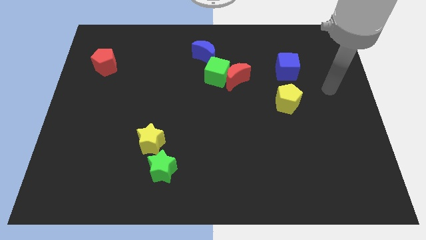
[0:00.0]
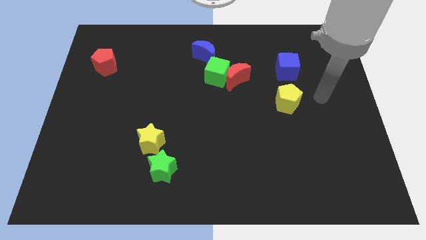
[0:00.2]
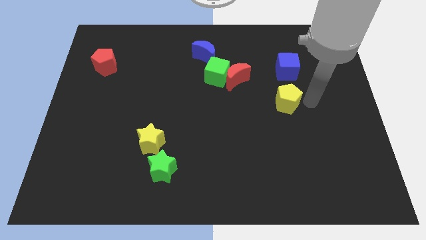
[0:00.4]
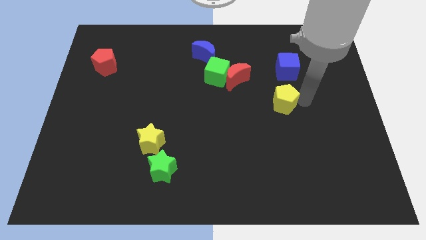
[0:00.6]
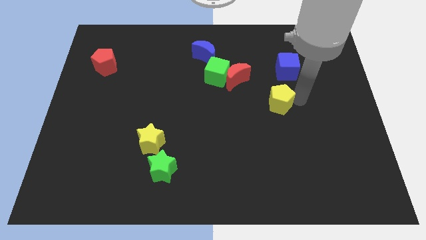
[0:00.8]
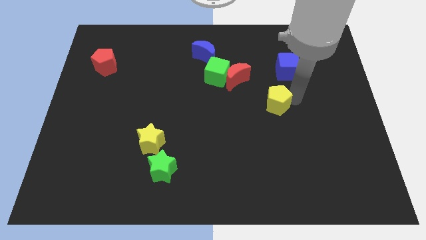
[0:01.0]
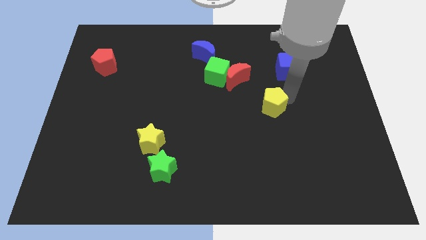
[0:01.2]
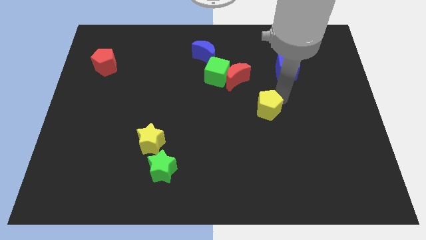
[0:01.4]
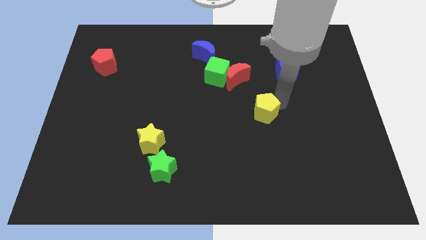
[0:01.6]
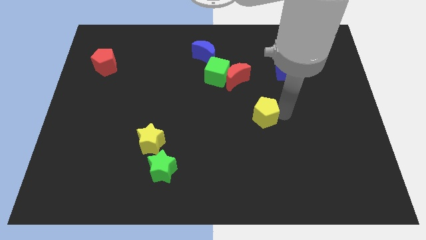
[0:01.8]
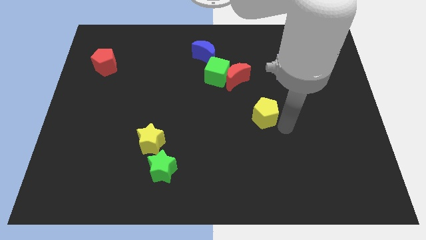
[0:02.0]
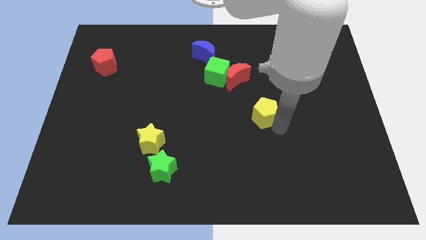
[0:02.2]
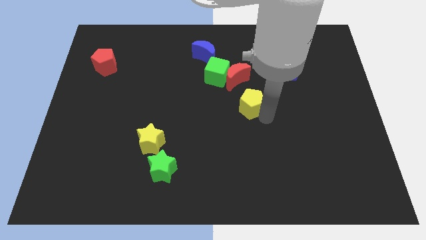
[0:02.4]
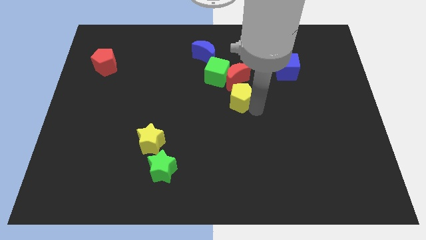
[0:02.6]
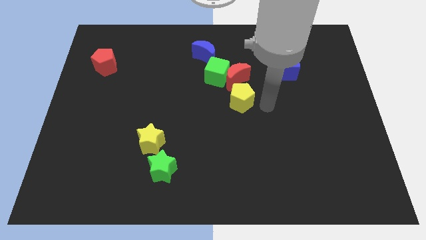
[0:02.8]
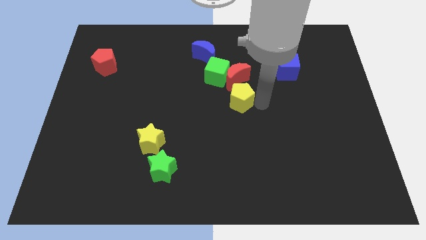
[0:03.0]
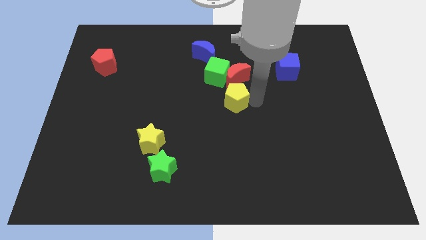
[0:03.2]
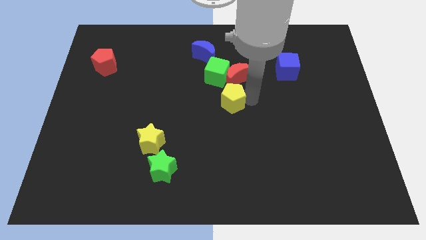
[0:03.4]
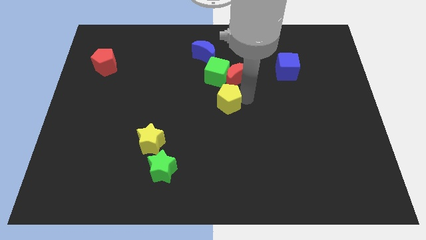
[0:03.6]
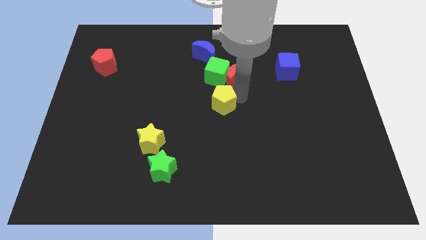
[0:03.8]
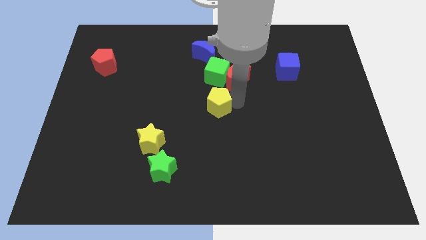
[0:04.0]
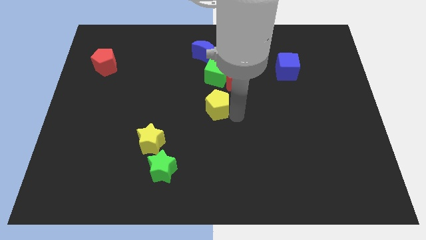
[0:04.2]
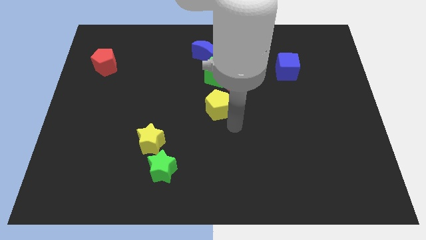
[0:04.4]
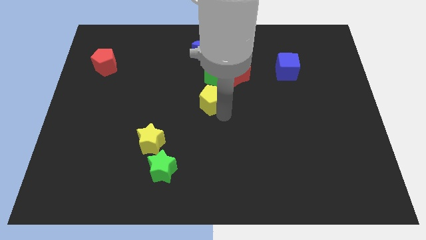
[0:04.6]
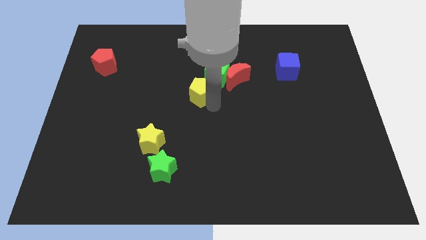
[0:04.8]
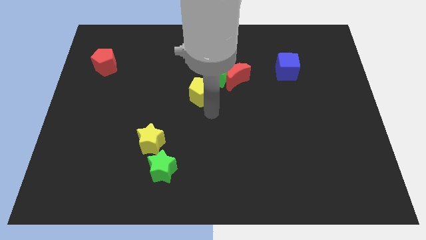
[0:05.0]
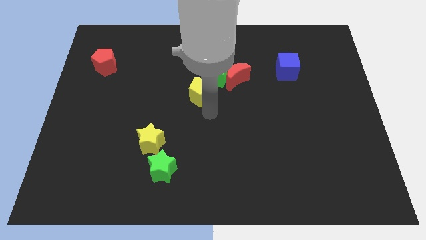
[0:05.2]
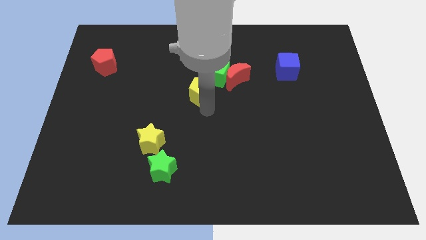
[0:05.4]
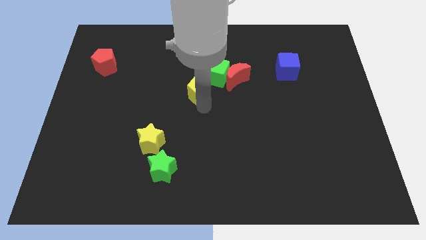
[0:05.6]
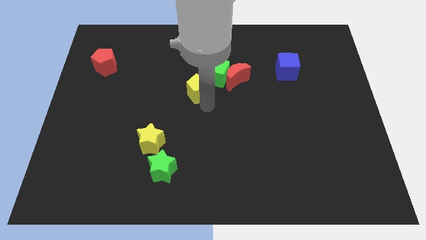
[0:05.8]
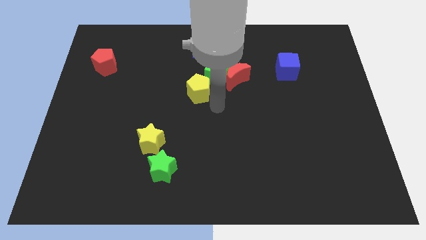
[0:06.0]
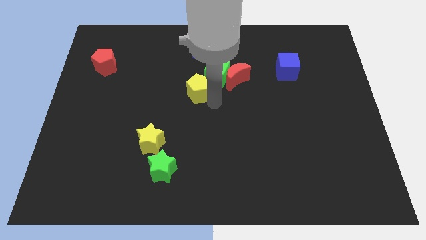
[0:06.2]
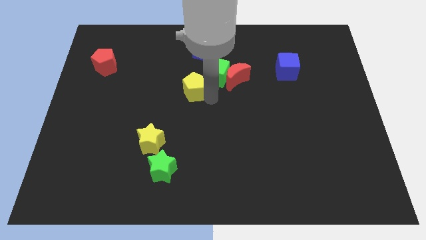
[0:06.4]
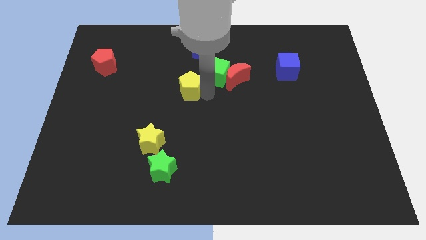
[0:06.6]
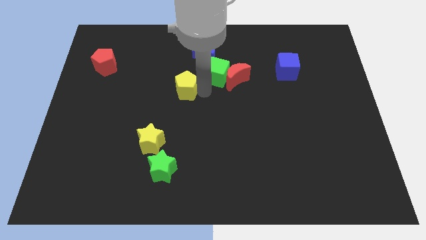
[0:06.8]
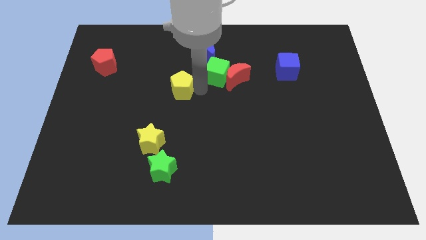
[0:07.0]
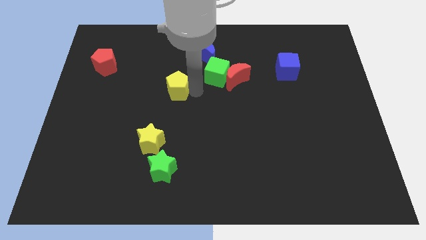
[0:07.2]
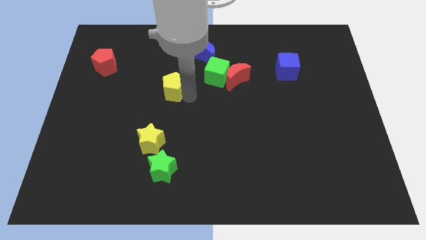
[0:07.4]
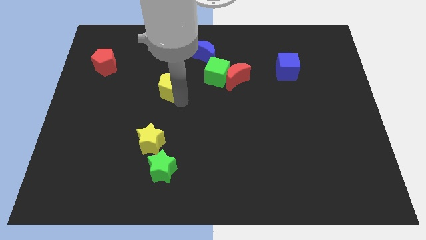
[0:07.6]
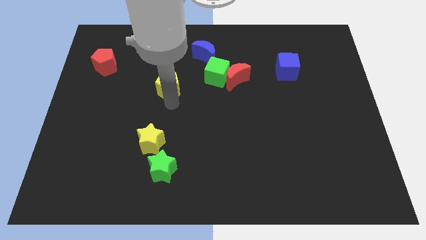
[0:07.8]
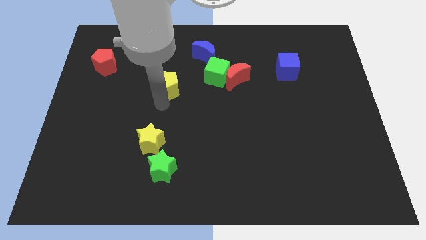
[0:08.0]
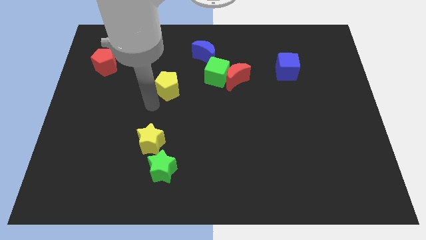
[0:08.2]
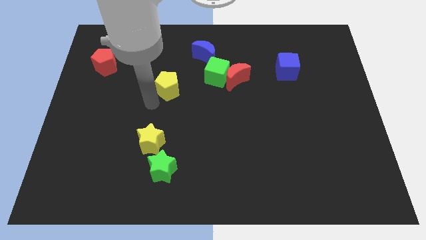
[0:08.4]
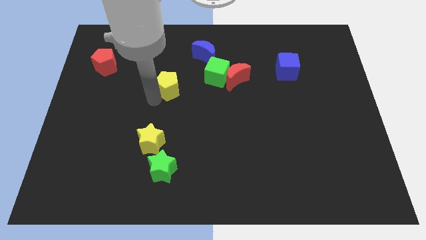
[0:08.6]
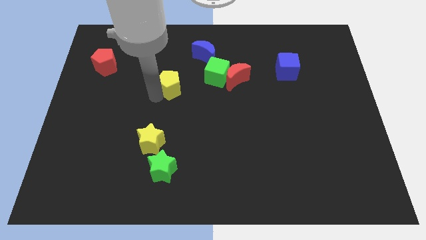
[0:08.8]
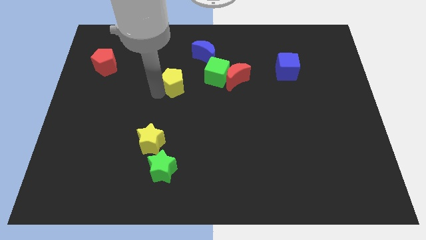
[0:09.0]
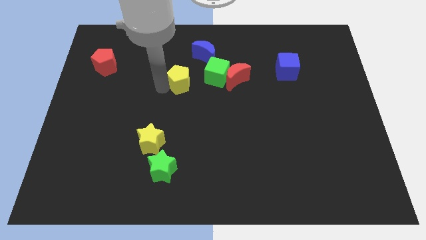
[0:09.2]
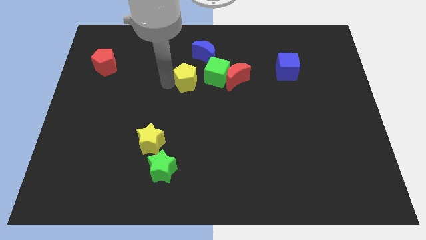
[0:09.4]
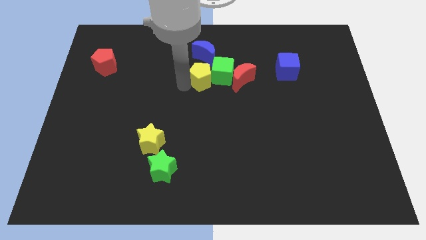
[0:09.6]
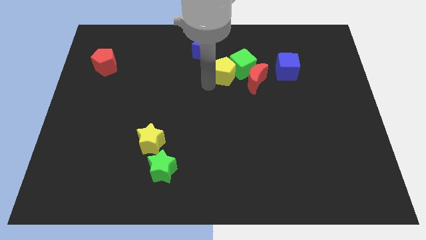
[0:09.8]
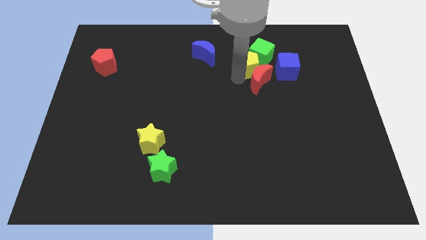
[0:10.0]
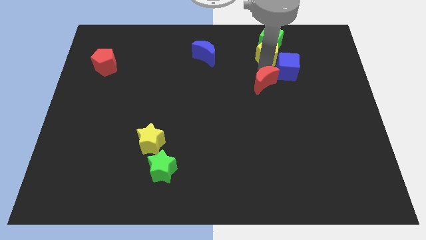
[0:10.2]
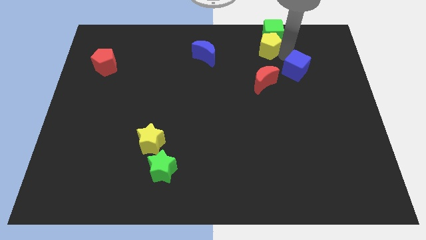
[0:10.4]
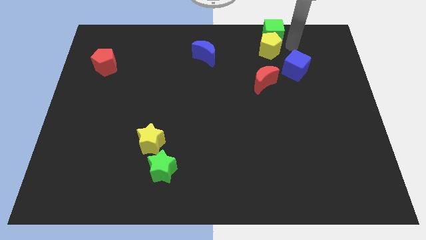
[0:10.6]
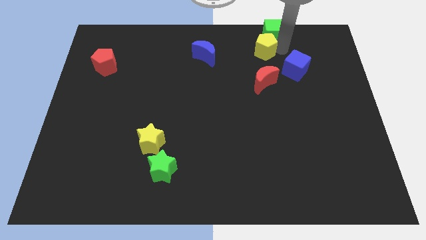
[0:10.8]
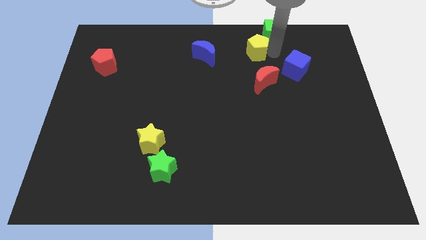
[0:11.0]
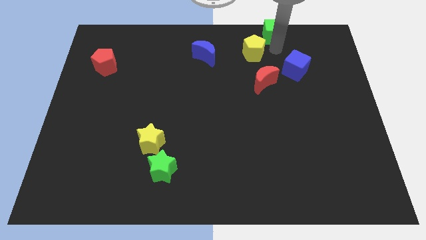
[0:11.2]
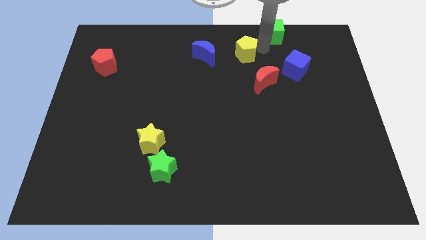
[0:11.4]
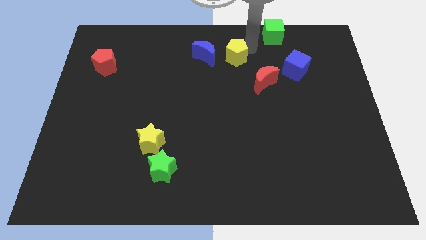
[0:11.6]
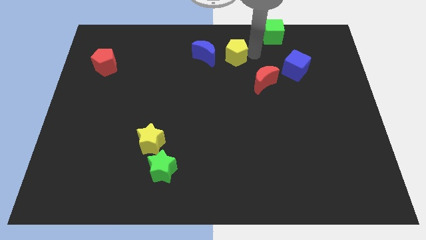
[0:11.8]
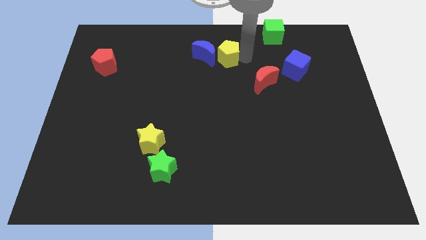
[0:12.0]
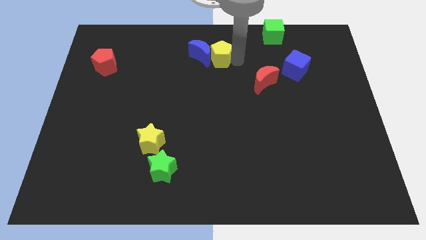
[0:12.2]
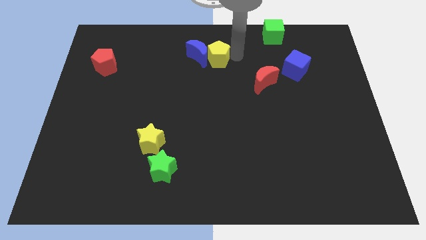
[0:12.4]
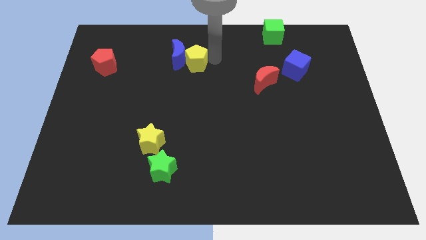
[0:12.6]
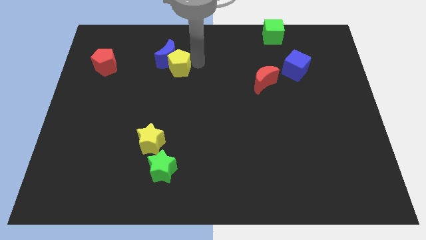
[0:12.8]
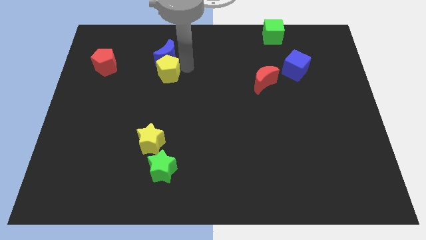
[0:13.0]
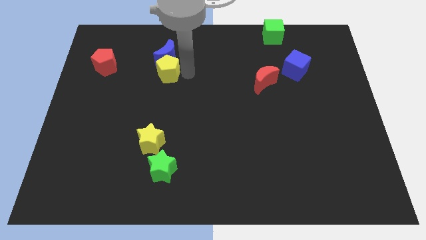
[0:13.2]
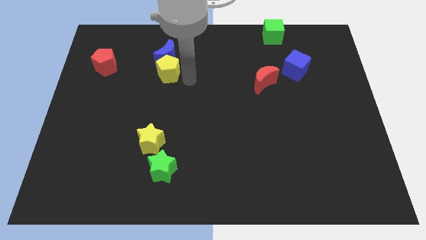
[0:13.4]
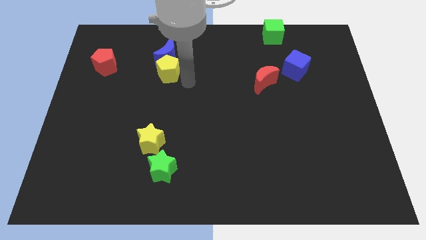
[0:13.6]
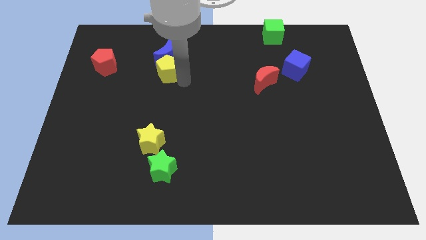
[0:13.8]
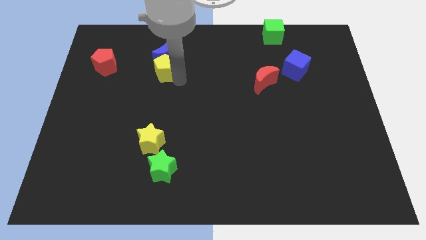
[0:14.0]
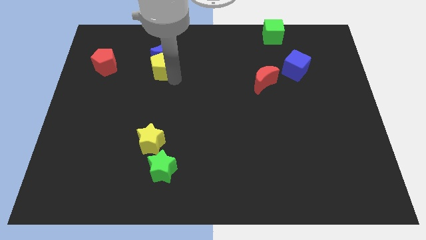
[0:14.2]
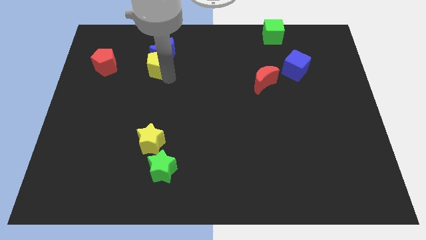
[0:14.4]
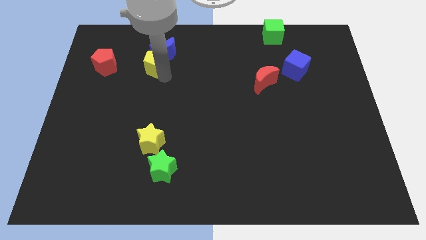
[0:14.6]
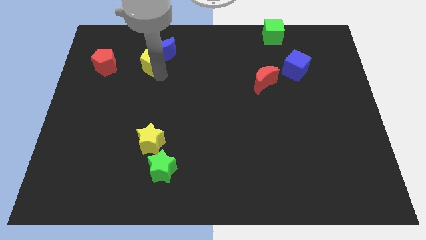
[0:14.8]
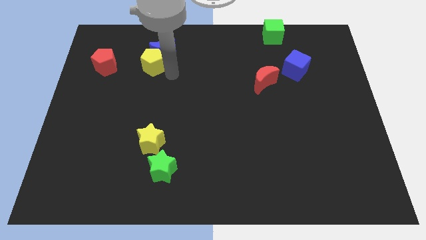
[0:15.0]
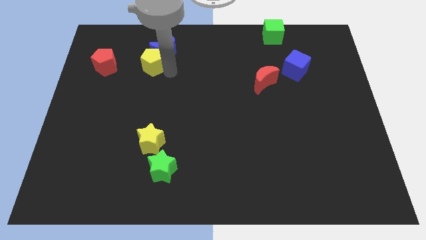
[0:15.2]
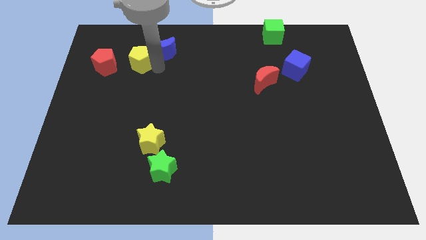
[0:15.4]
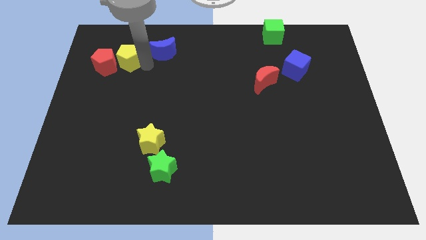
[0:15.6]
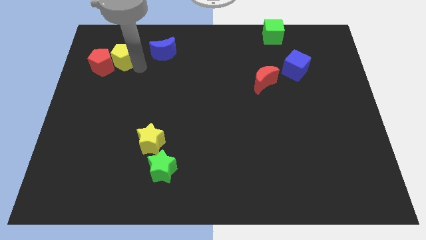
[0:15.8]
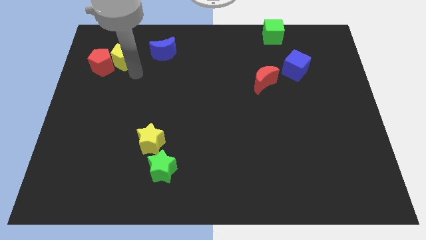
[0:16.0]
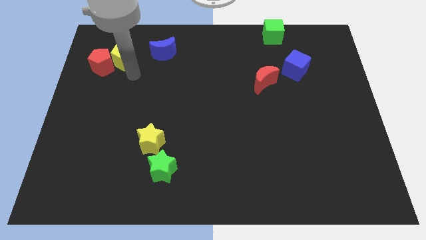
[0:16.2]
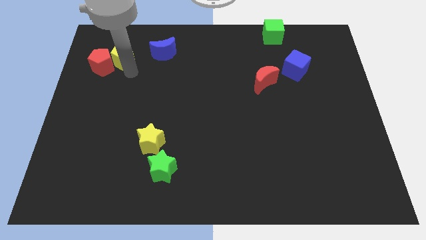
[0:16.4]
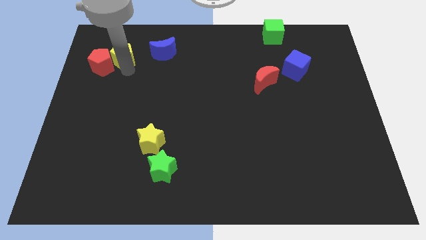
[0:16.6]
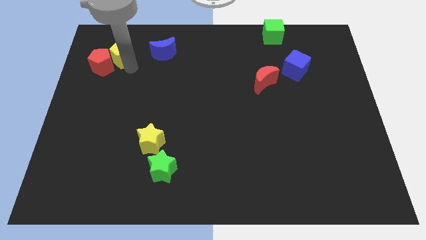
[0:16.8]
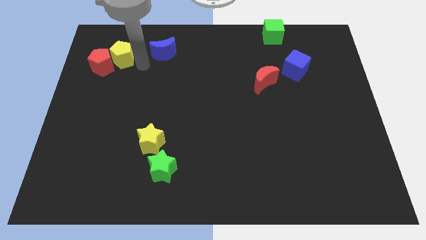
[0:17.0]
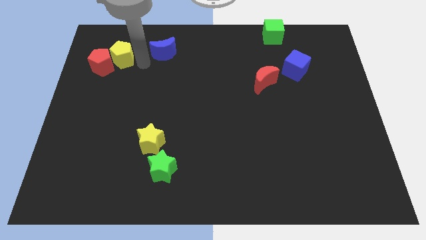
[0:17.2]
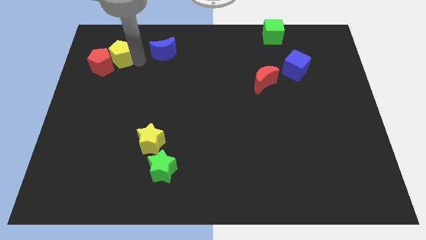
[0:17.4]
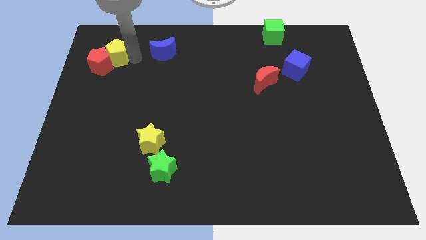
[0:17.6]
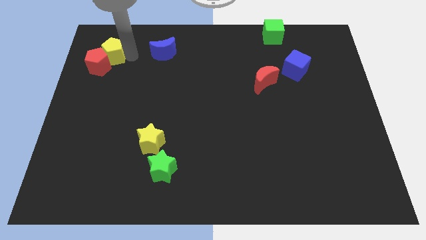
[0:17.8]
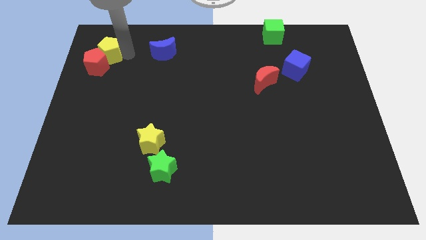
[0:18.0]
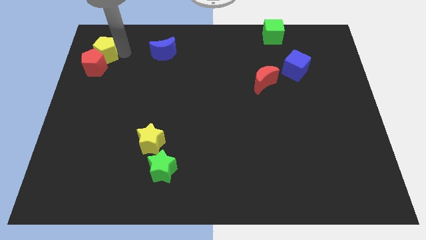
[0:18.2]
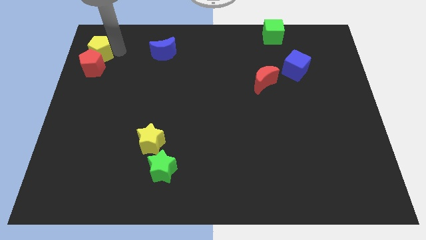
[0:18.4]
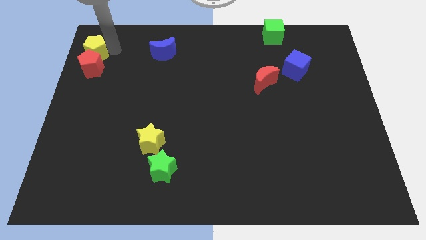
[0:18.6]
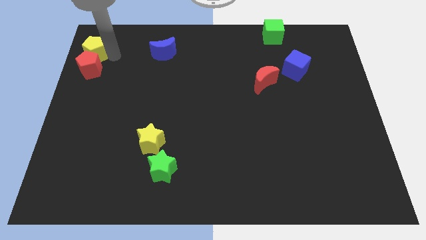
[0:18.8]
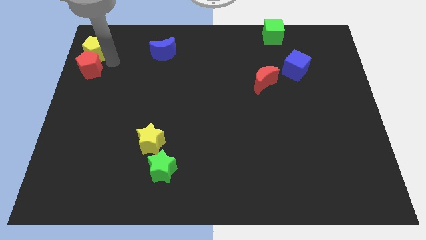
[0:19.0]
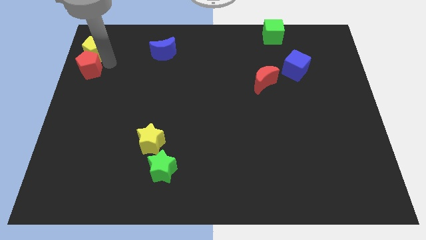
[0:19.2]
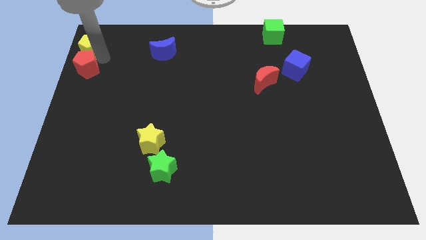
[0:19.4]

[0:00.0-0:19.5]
put the yellow pentagon to the top left
